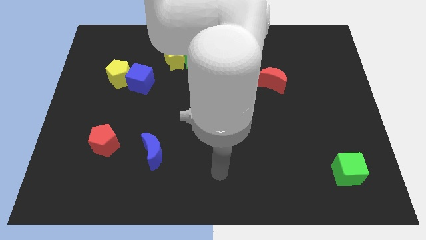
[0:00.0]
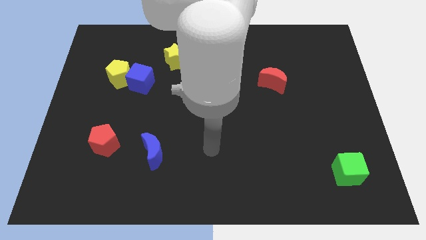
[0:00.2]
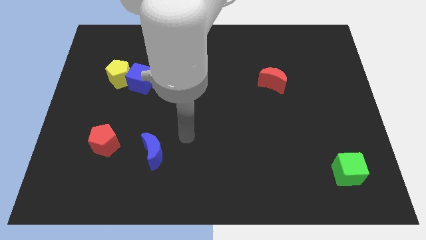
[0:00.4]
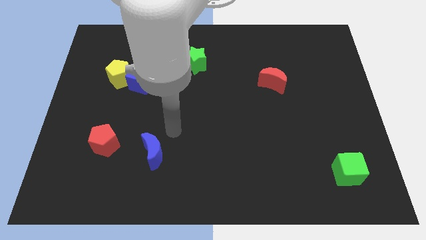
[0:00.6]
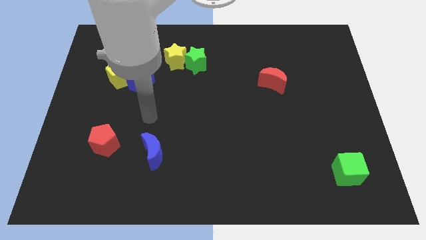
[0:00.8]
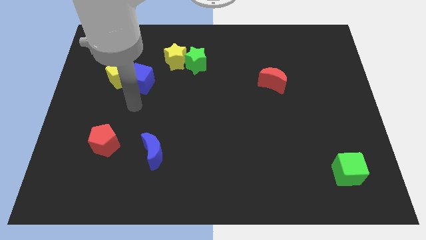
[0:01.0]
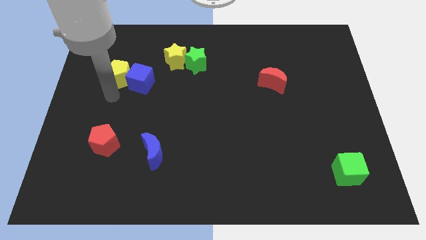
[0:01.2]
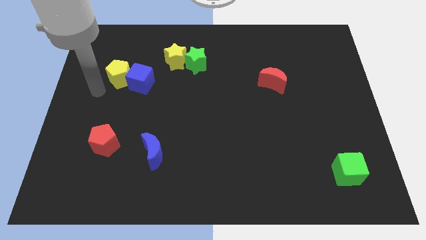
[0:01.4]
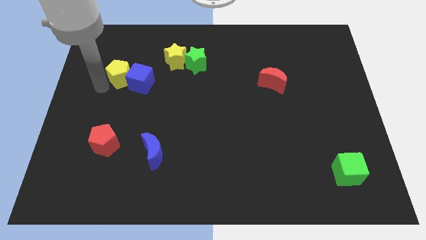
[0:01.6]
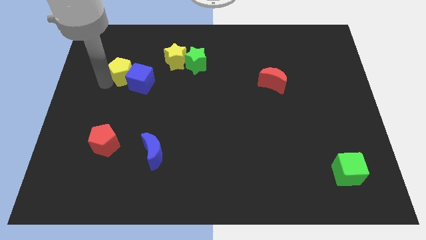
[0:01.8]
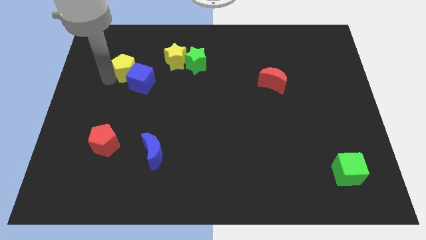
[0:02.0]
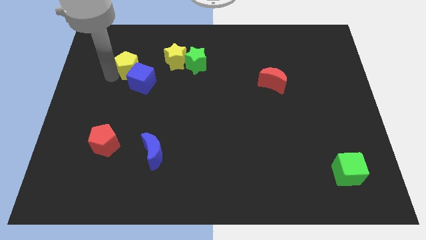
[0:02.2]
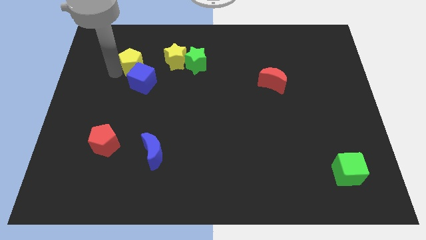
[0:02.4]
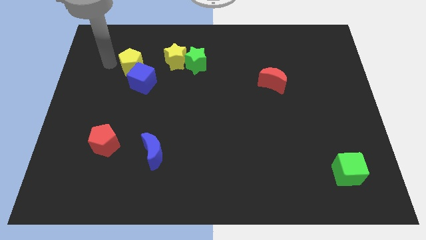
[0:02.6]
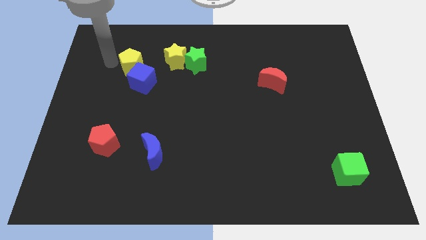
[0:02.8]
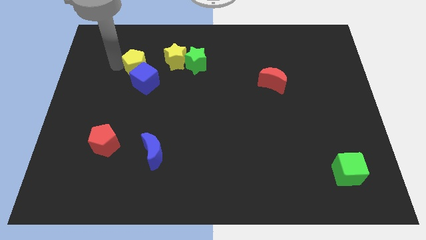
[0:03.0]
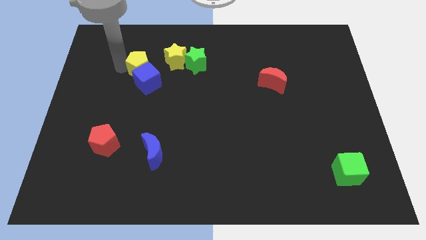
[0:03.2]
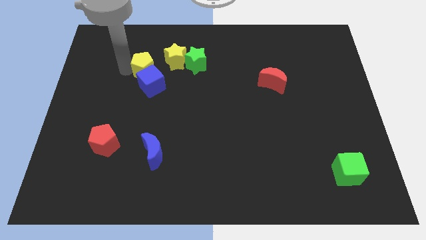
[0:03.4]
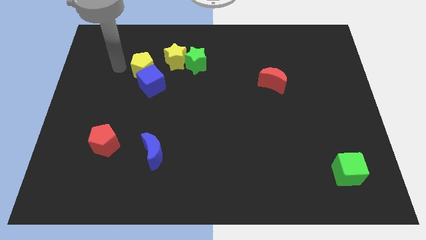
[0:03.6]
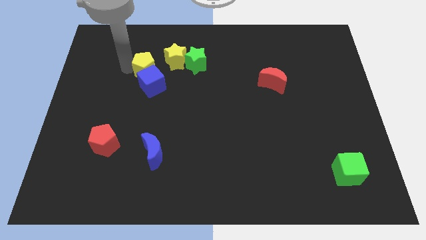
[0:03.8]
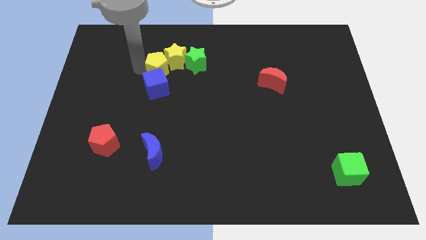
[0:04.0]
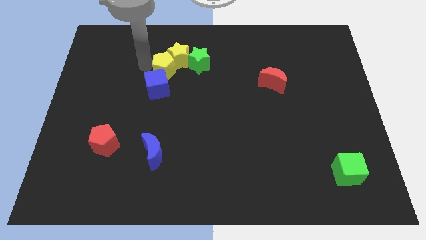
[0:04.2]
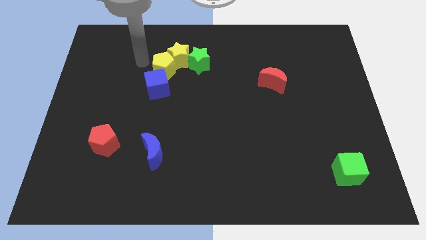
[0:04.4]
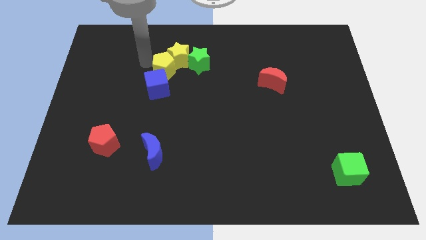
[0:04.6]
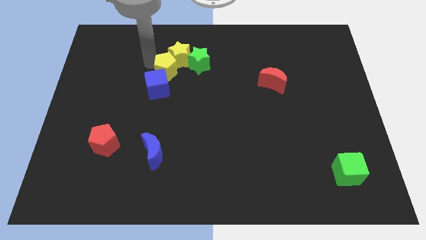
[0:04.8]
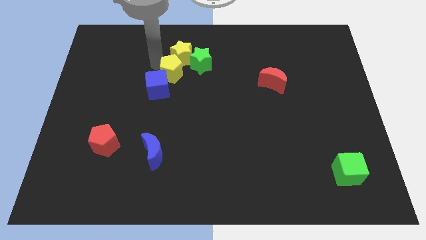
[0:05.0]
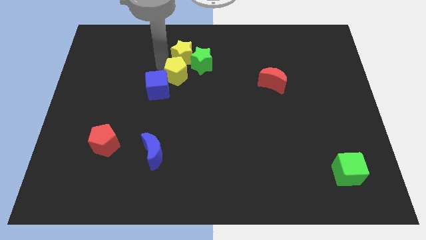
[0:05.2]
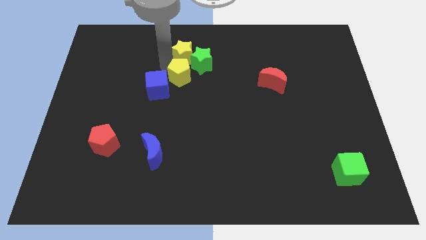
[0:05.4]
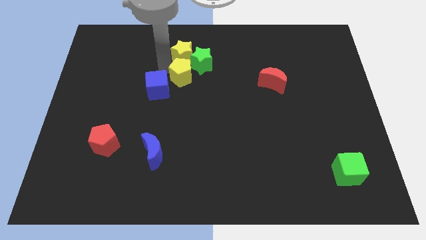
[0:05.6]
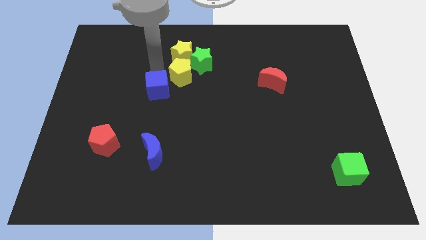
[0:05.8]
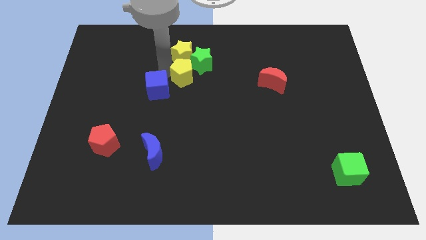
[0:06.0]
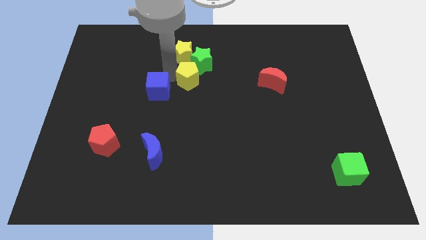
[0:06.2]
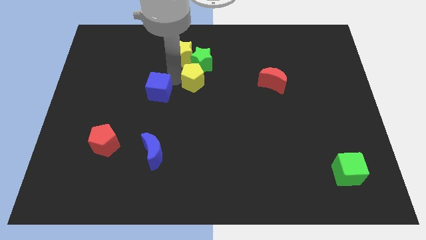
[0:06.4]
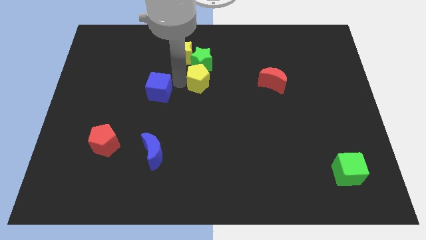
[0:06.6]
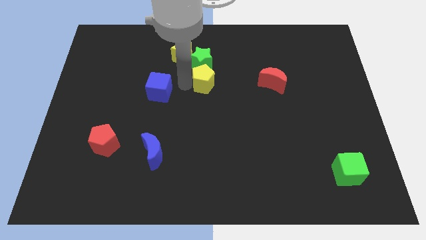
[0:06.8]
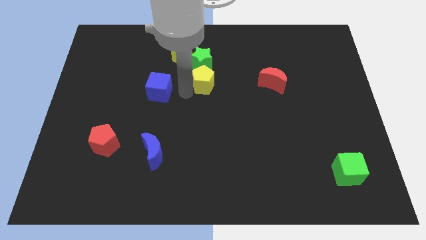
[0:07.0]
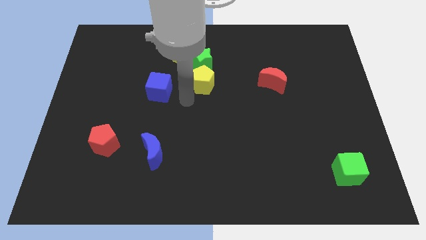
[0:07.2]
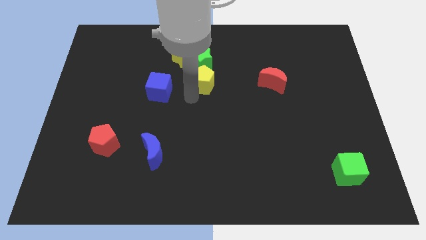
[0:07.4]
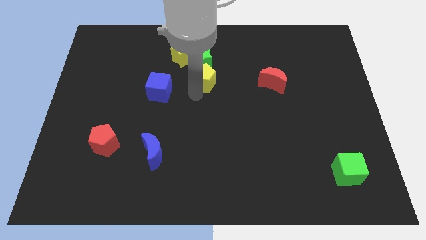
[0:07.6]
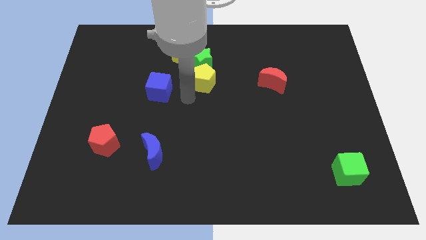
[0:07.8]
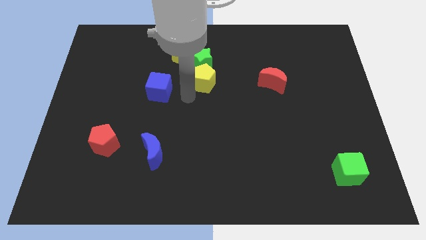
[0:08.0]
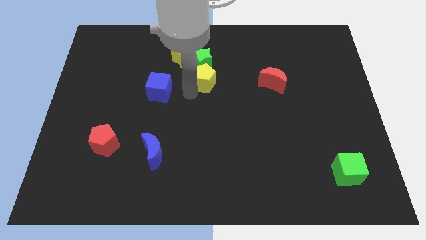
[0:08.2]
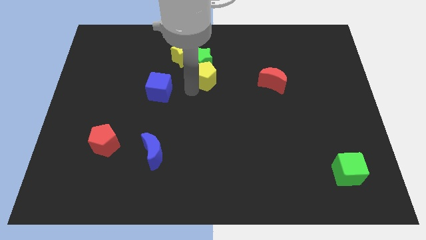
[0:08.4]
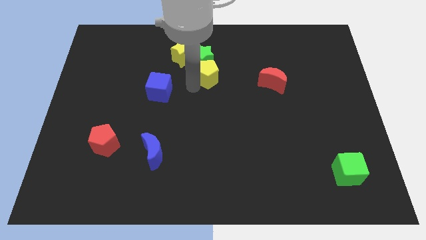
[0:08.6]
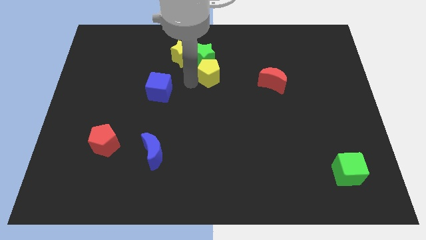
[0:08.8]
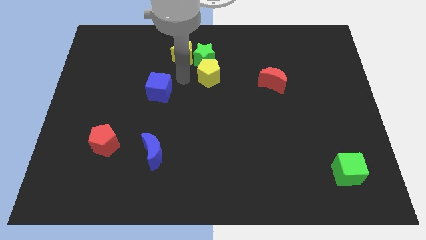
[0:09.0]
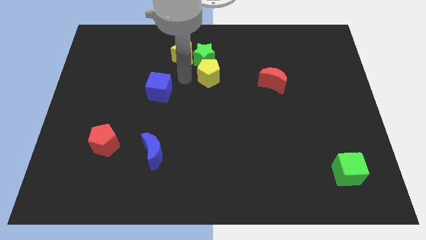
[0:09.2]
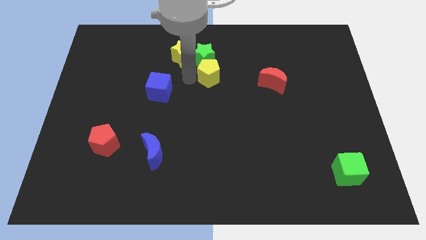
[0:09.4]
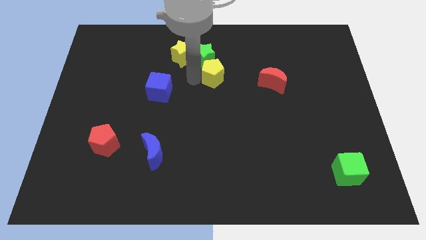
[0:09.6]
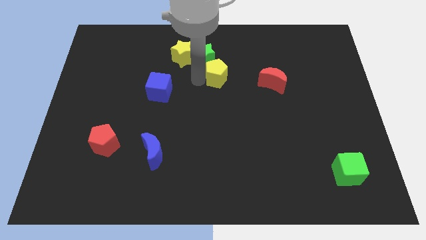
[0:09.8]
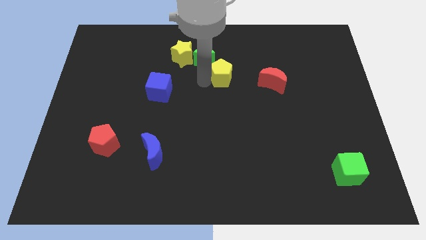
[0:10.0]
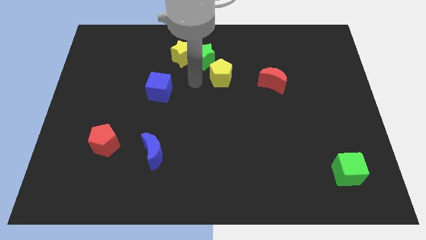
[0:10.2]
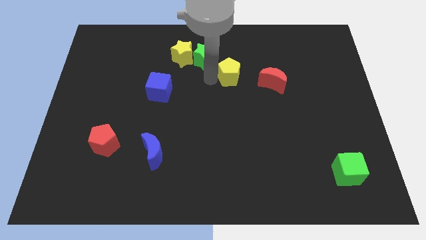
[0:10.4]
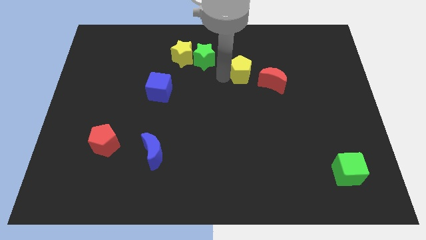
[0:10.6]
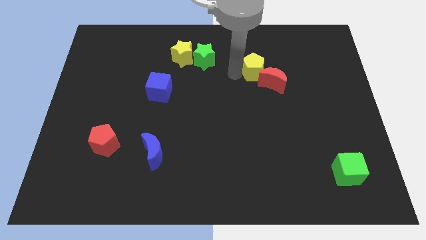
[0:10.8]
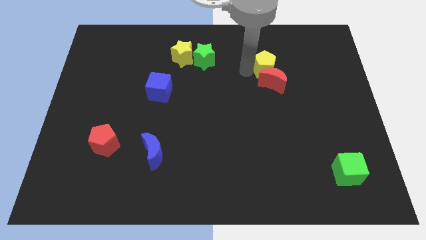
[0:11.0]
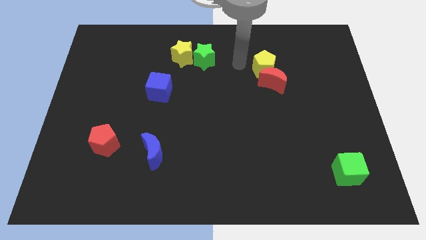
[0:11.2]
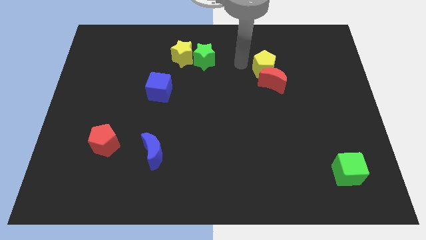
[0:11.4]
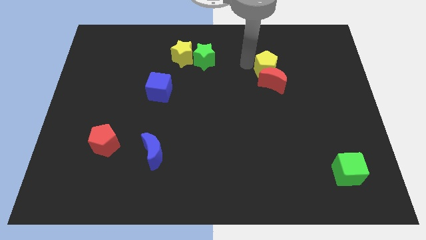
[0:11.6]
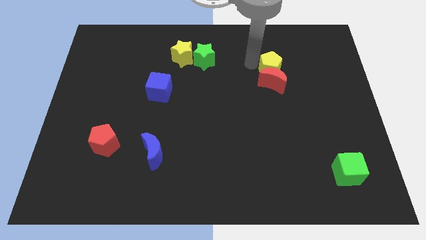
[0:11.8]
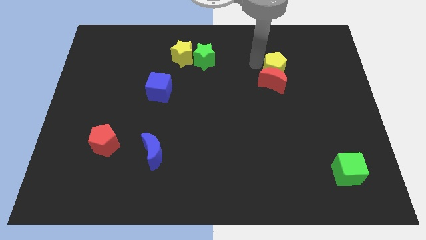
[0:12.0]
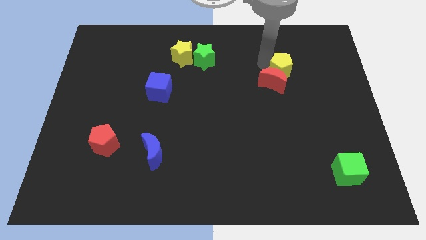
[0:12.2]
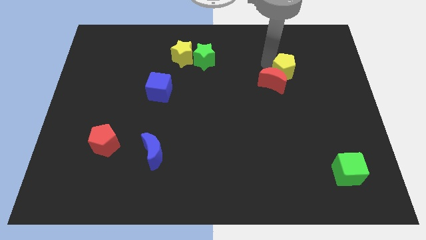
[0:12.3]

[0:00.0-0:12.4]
slide the yellow pentagon to the right side of the red moon

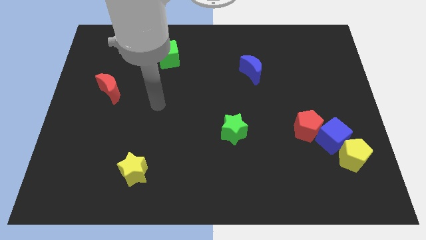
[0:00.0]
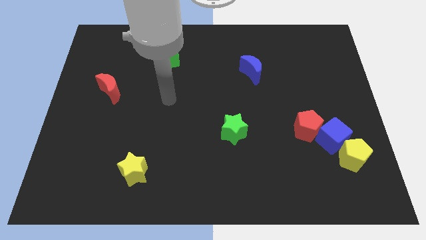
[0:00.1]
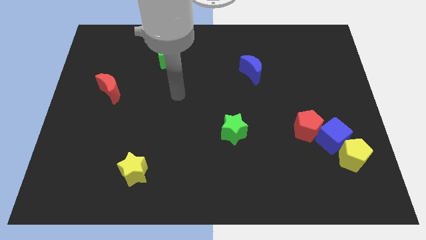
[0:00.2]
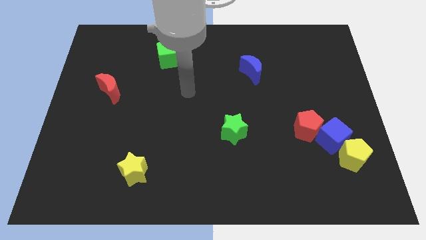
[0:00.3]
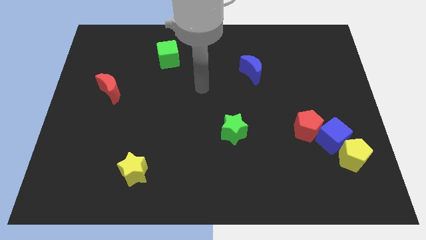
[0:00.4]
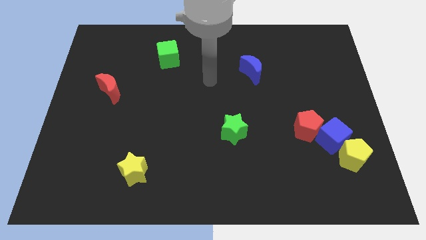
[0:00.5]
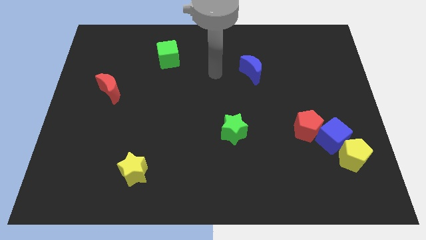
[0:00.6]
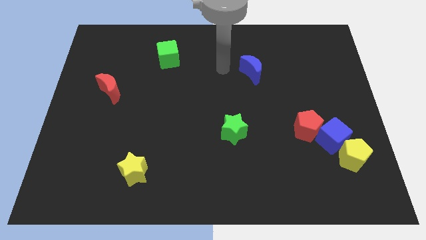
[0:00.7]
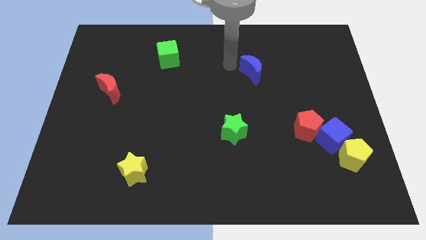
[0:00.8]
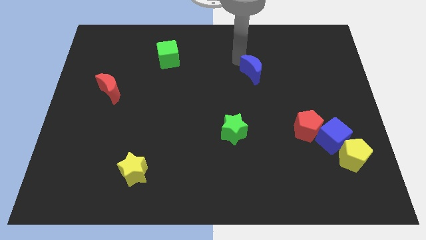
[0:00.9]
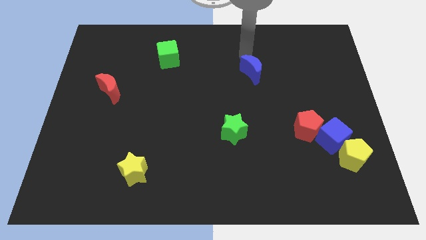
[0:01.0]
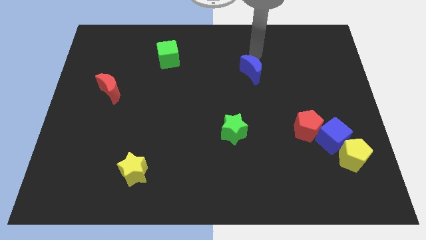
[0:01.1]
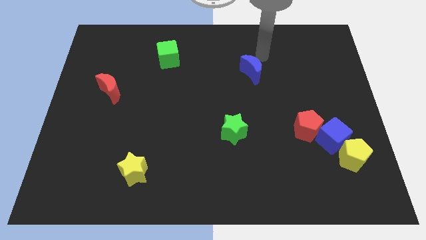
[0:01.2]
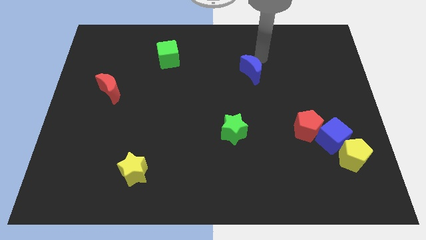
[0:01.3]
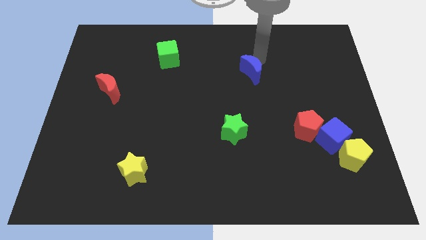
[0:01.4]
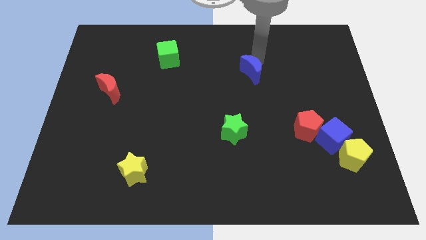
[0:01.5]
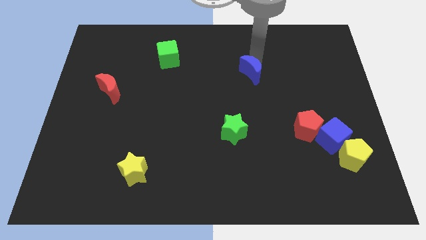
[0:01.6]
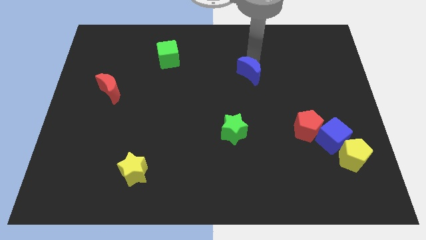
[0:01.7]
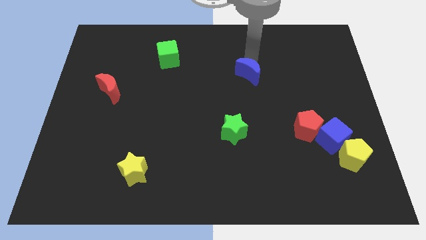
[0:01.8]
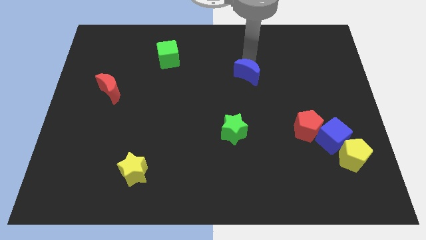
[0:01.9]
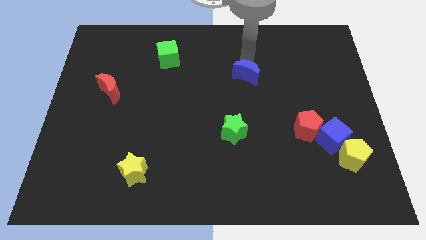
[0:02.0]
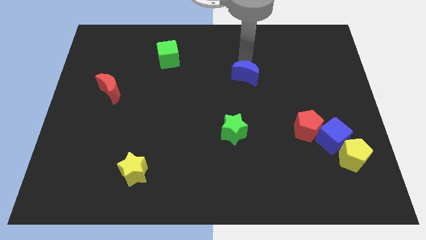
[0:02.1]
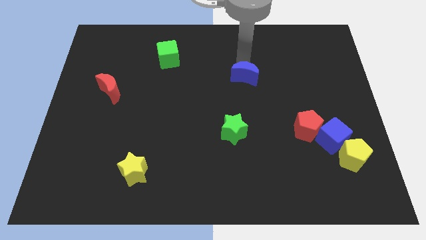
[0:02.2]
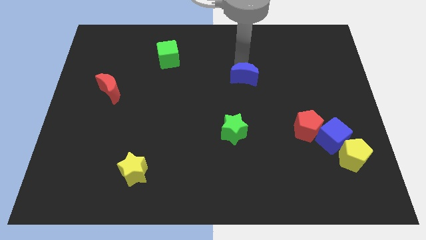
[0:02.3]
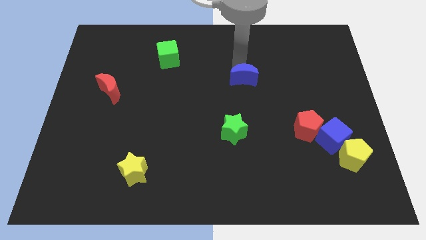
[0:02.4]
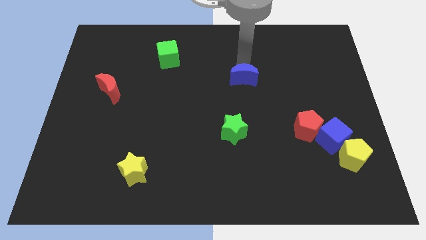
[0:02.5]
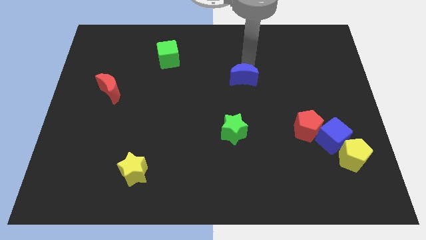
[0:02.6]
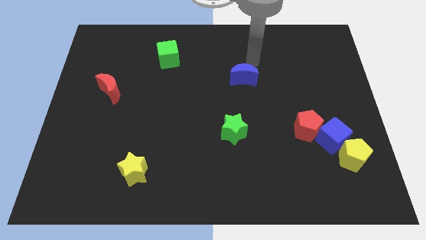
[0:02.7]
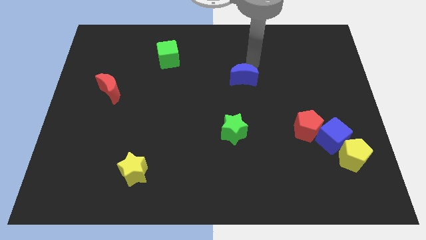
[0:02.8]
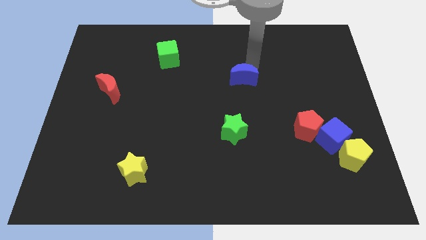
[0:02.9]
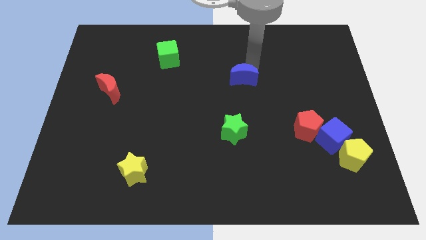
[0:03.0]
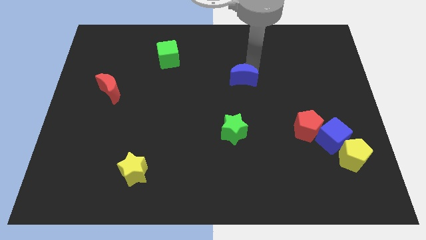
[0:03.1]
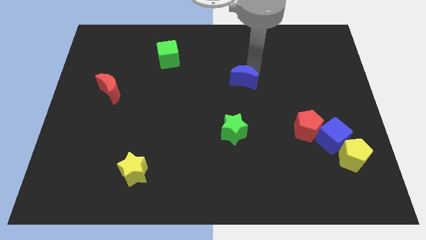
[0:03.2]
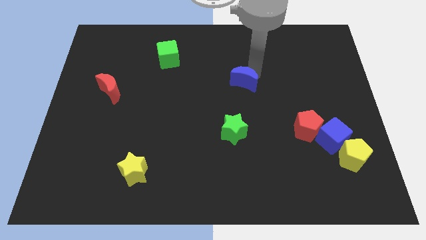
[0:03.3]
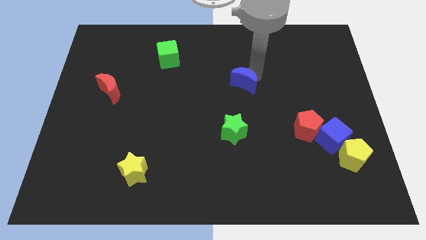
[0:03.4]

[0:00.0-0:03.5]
move the blue moon above the green star
